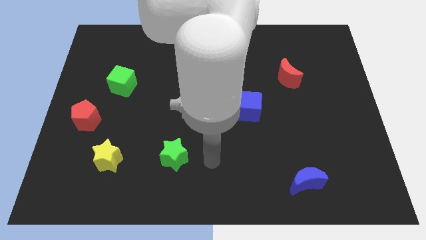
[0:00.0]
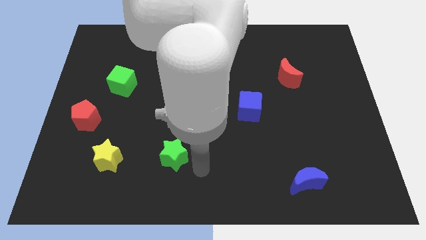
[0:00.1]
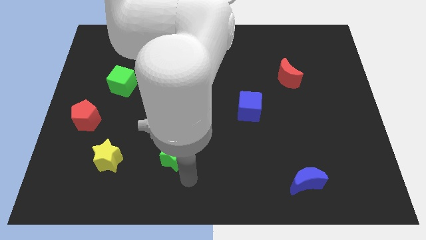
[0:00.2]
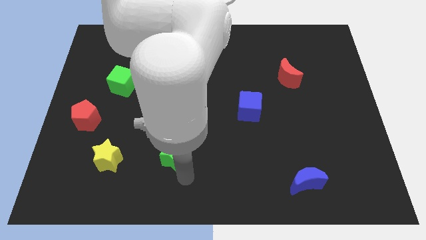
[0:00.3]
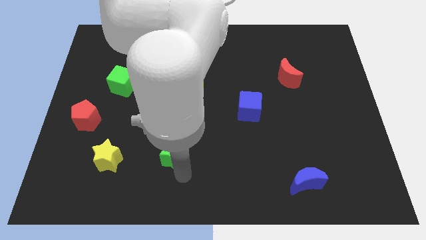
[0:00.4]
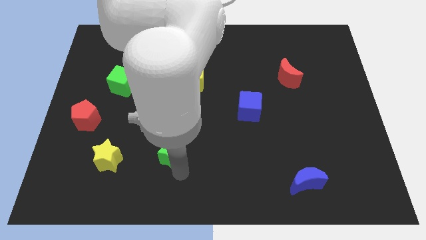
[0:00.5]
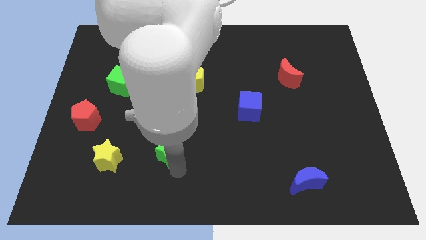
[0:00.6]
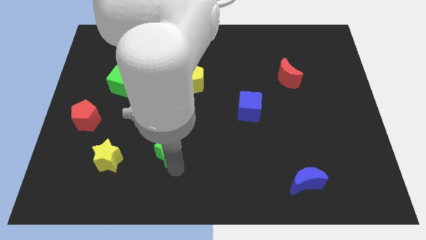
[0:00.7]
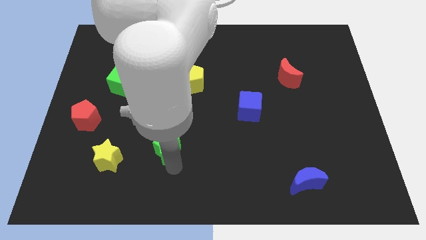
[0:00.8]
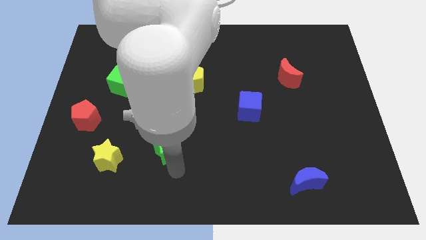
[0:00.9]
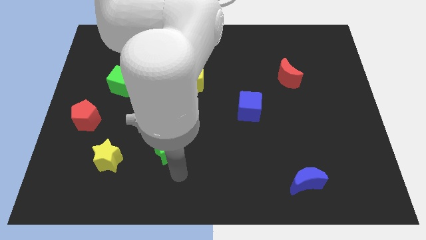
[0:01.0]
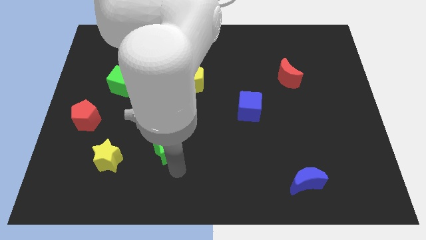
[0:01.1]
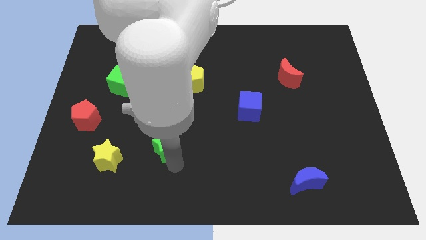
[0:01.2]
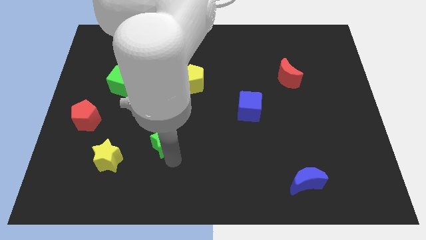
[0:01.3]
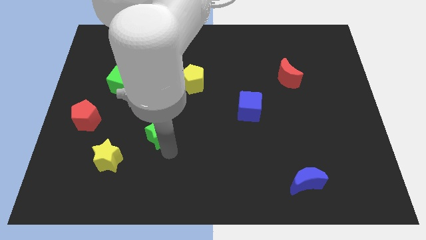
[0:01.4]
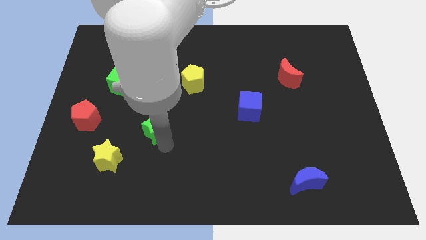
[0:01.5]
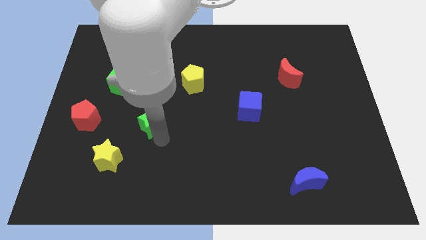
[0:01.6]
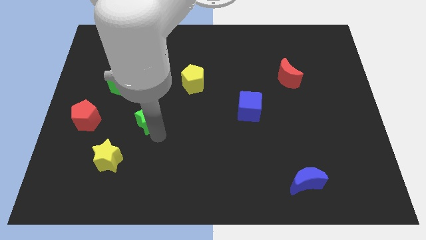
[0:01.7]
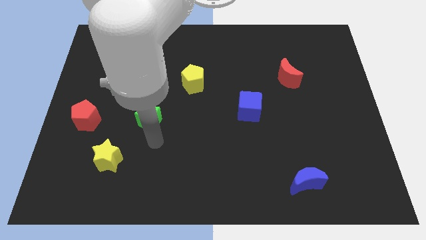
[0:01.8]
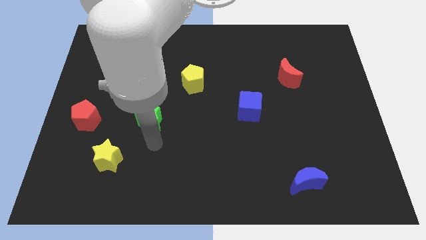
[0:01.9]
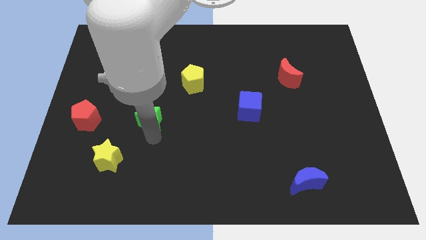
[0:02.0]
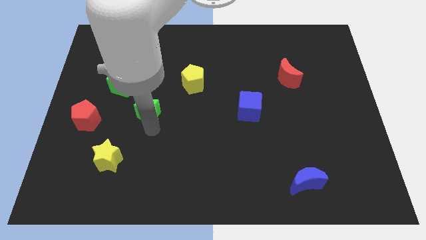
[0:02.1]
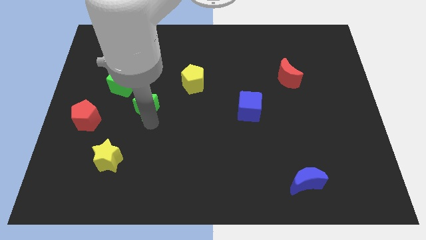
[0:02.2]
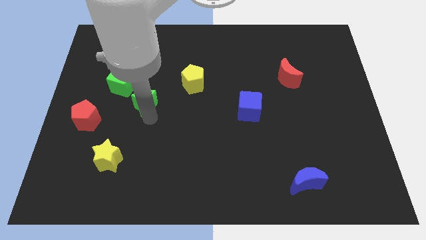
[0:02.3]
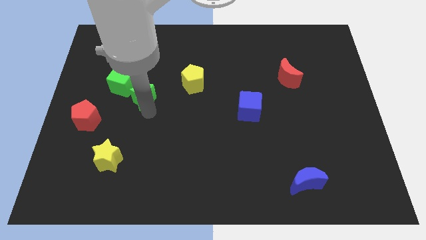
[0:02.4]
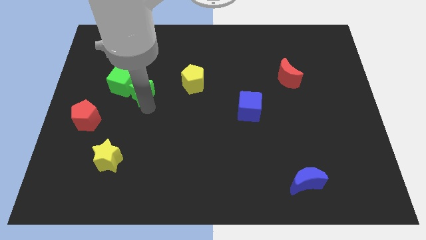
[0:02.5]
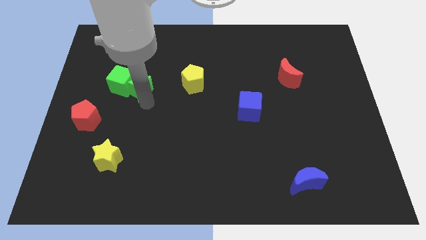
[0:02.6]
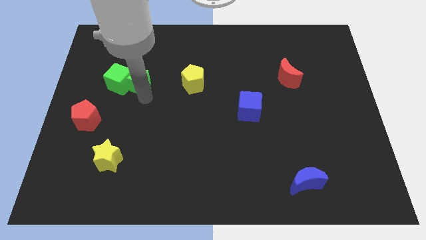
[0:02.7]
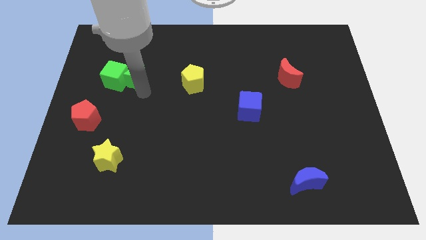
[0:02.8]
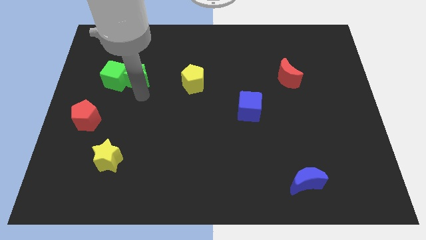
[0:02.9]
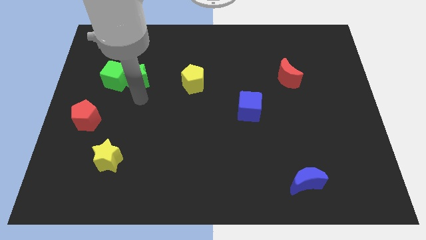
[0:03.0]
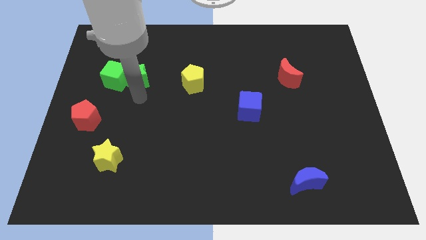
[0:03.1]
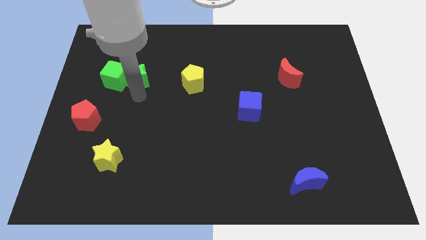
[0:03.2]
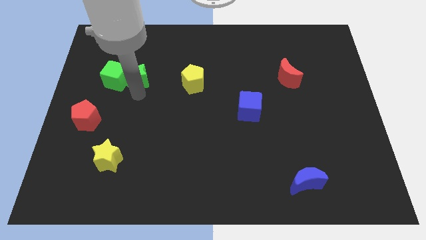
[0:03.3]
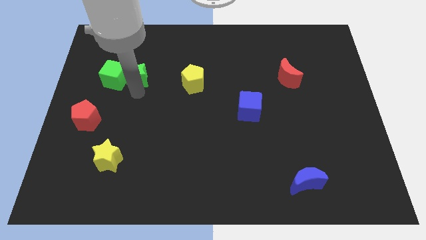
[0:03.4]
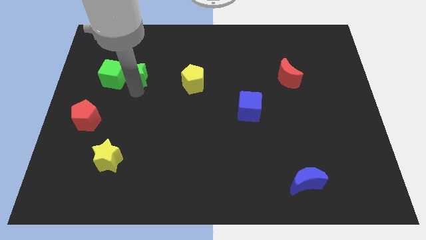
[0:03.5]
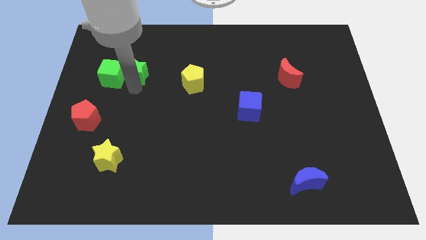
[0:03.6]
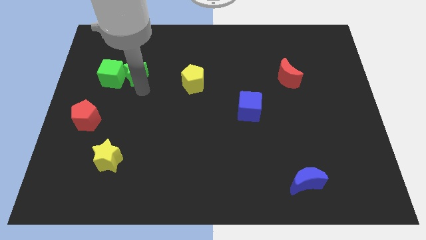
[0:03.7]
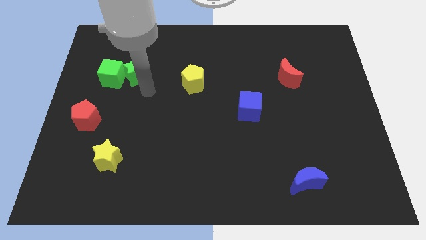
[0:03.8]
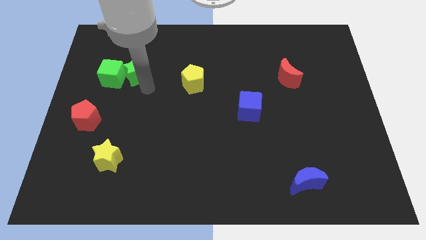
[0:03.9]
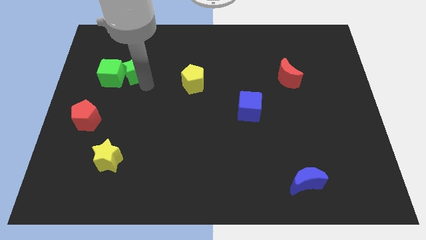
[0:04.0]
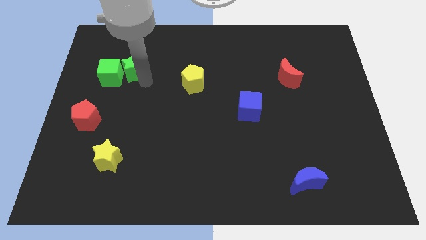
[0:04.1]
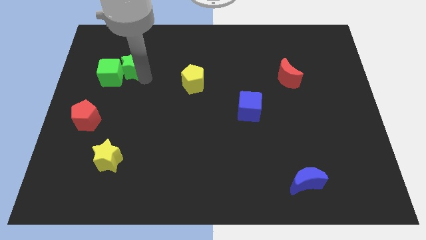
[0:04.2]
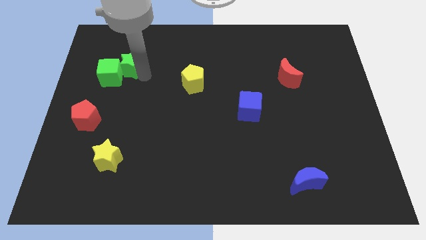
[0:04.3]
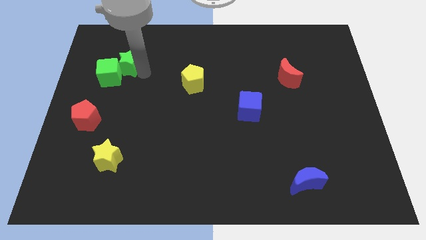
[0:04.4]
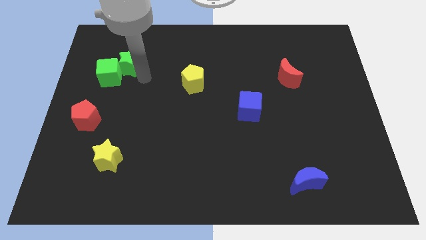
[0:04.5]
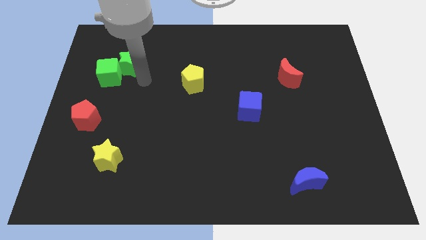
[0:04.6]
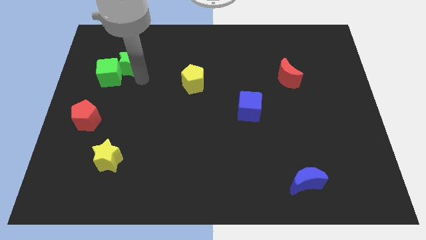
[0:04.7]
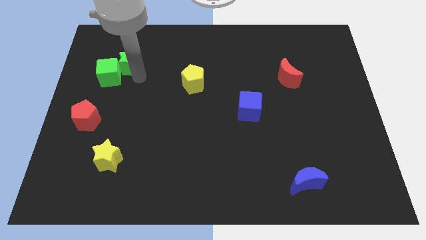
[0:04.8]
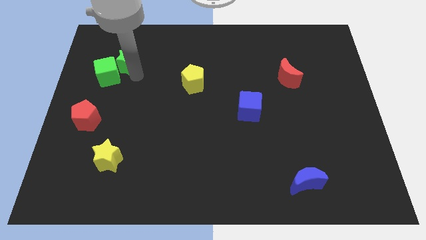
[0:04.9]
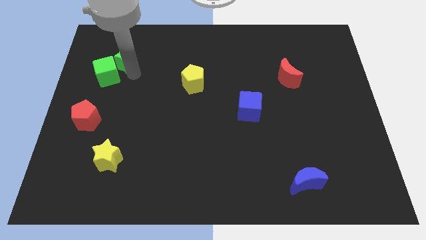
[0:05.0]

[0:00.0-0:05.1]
move the green star above the green cube

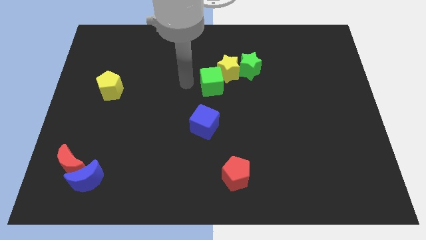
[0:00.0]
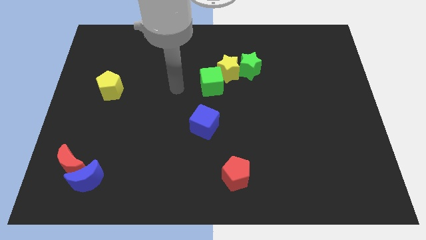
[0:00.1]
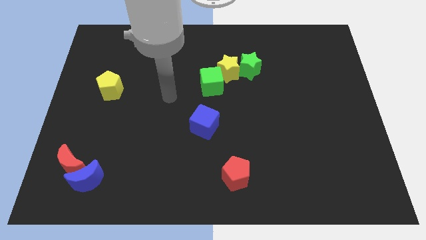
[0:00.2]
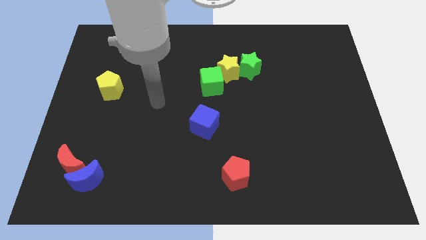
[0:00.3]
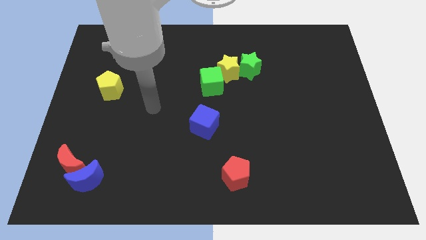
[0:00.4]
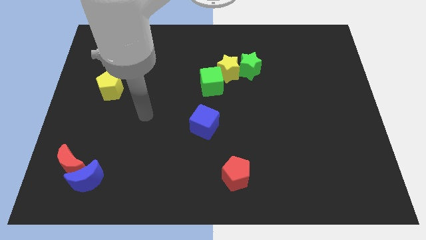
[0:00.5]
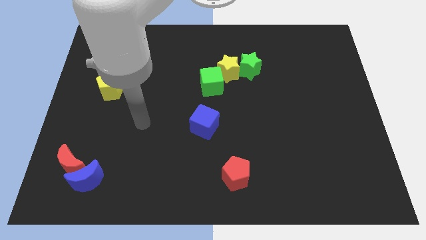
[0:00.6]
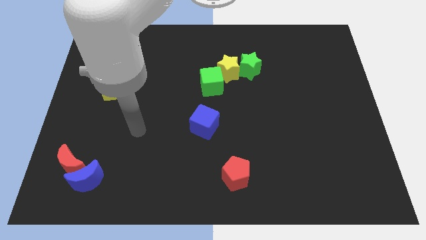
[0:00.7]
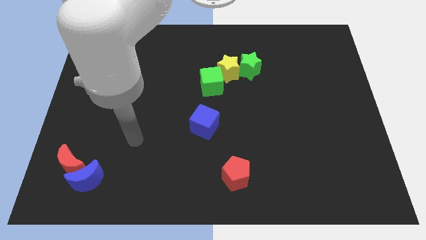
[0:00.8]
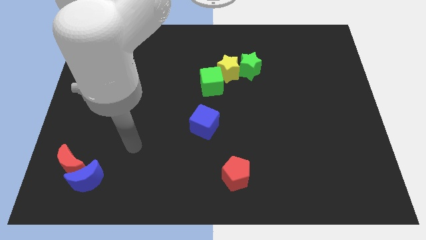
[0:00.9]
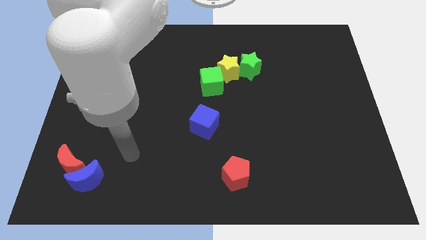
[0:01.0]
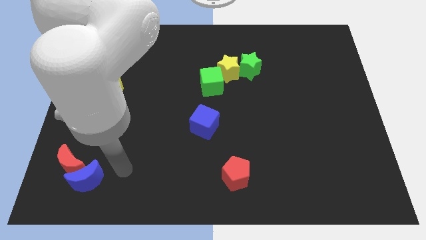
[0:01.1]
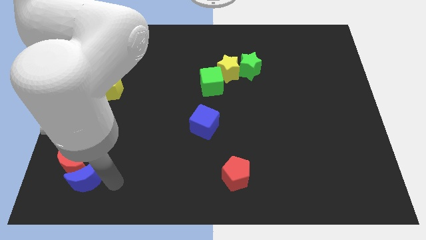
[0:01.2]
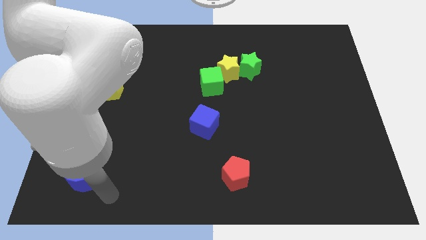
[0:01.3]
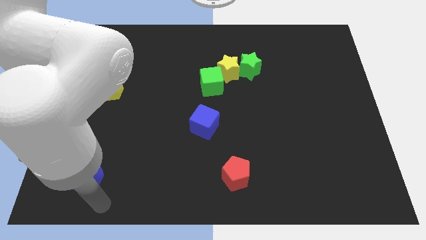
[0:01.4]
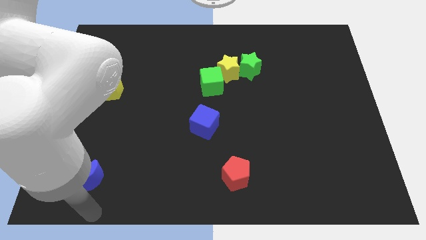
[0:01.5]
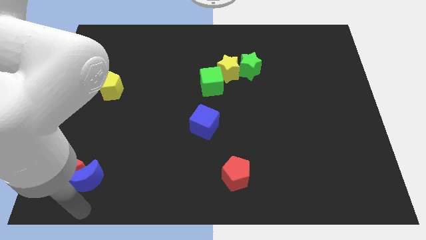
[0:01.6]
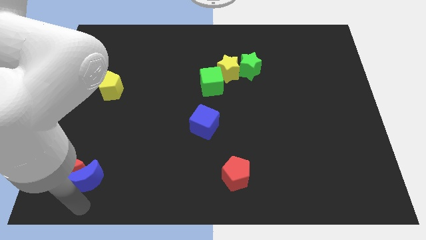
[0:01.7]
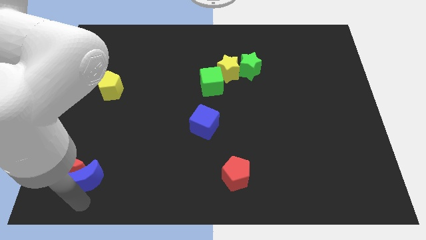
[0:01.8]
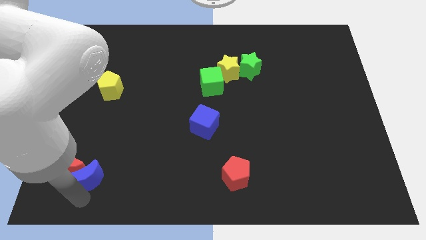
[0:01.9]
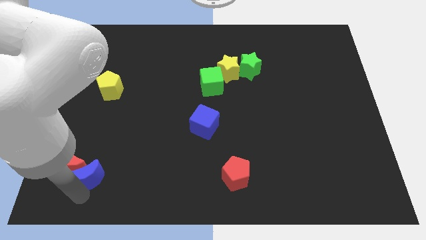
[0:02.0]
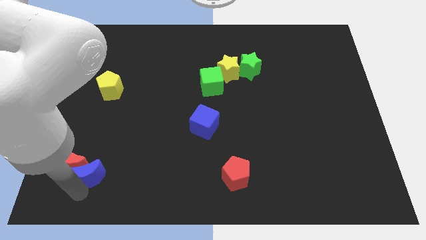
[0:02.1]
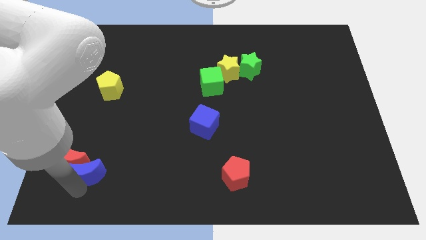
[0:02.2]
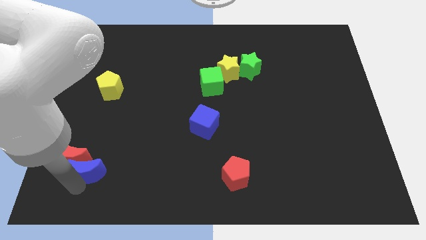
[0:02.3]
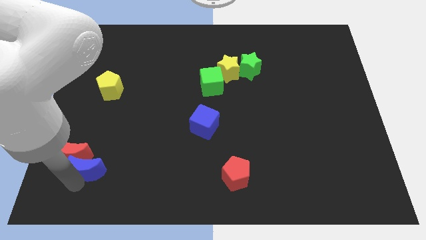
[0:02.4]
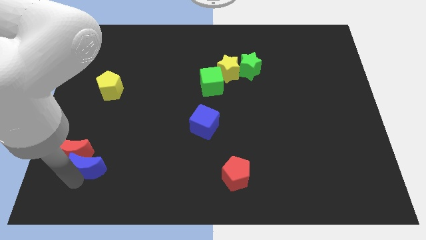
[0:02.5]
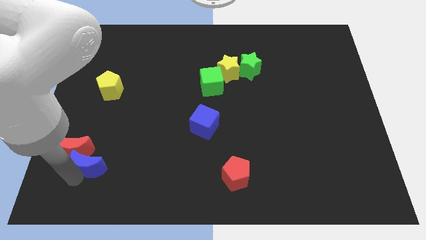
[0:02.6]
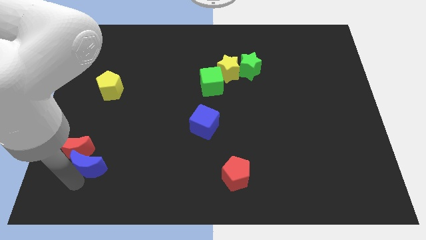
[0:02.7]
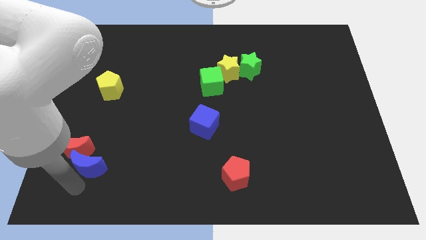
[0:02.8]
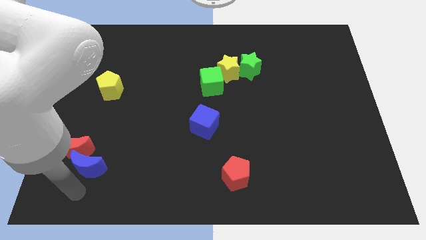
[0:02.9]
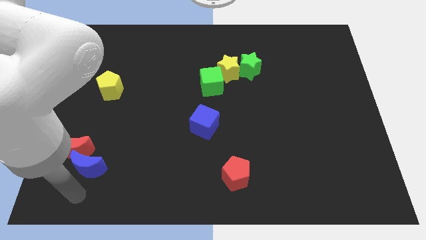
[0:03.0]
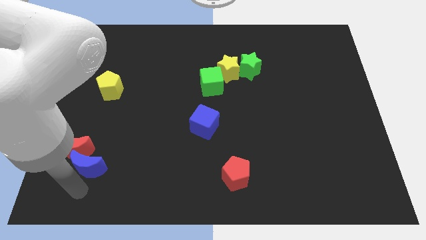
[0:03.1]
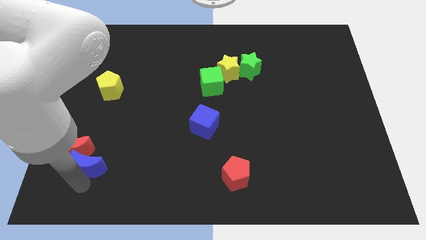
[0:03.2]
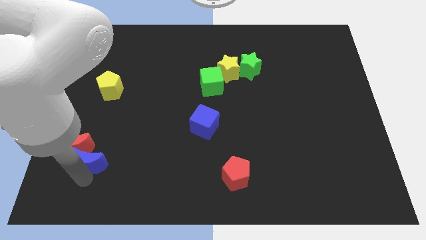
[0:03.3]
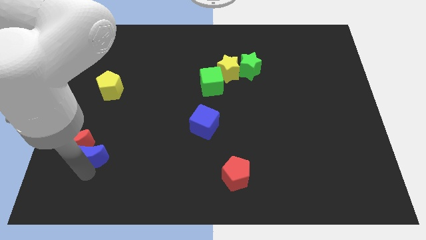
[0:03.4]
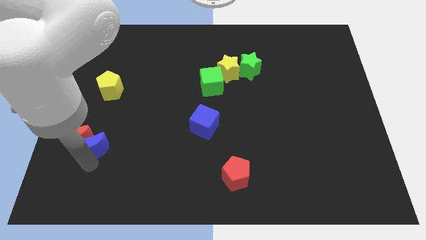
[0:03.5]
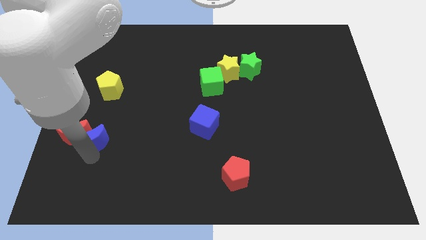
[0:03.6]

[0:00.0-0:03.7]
slide the blue moon to the bottom of the yellow pentagon
